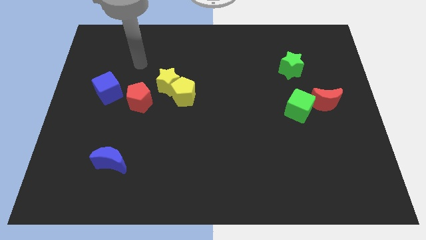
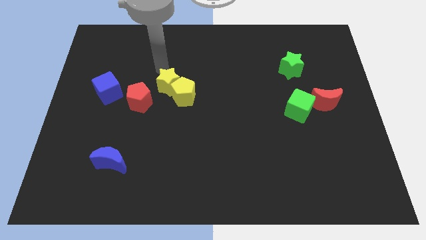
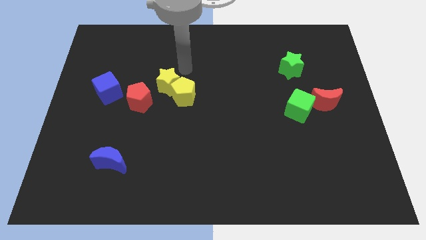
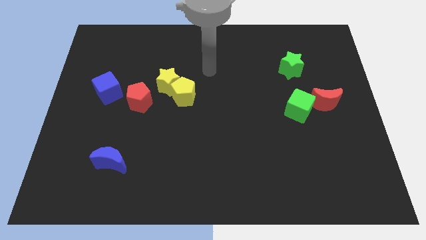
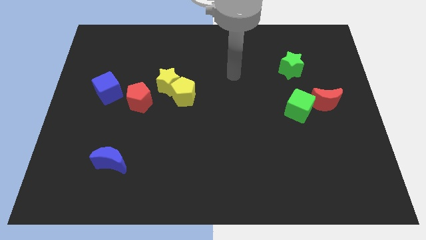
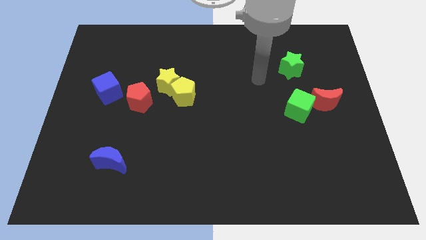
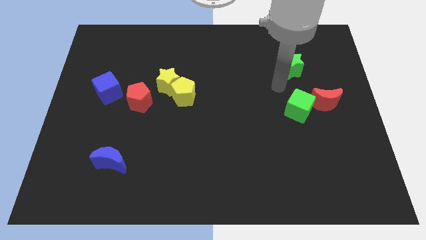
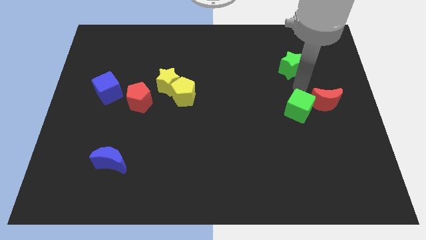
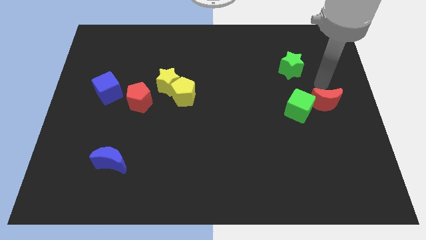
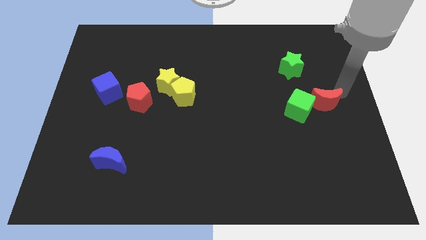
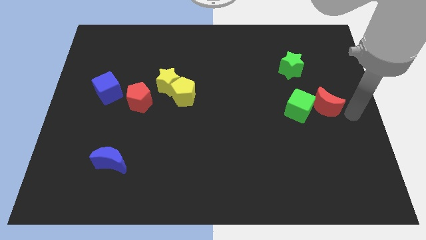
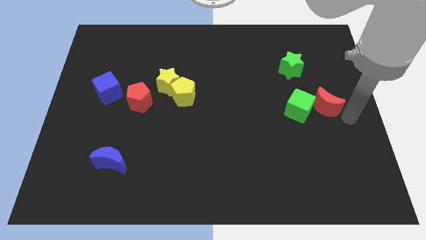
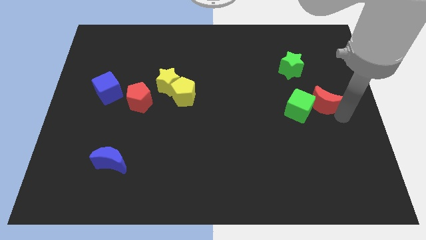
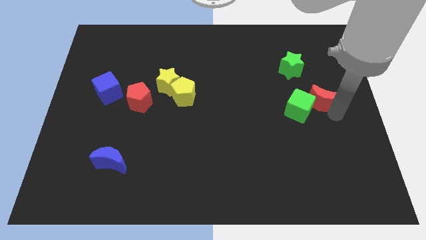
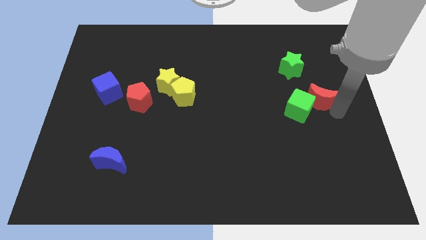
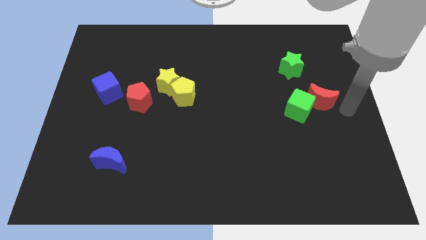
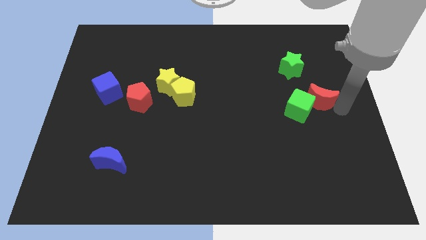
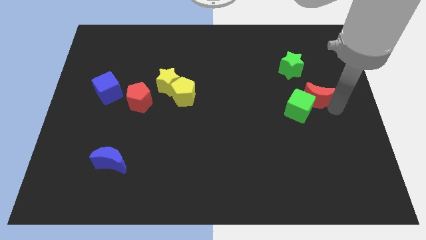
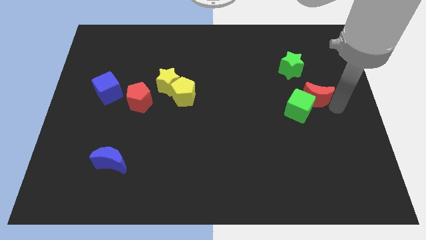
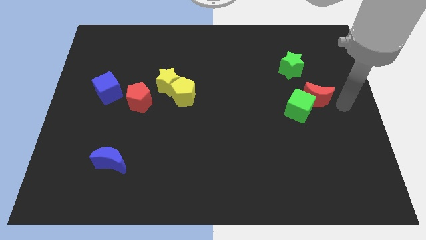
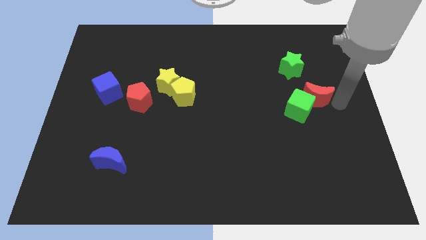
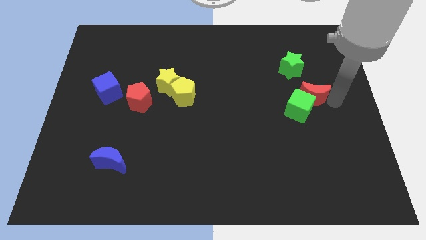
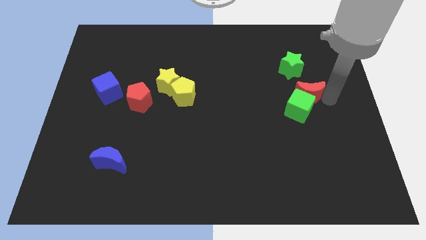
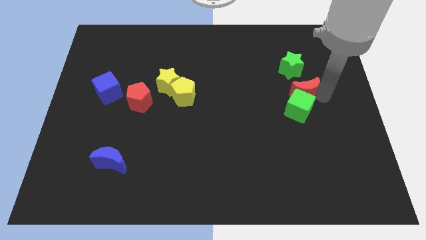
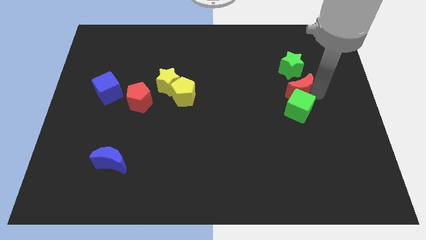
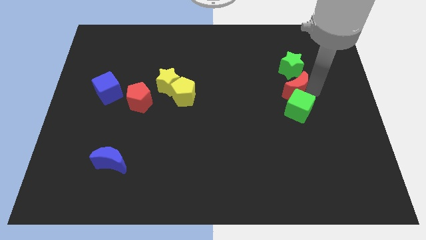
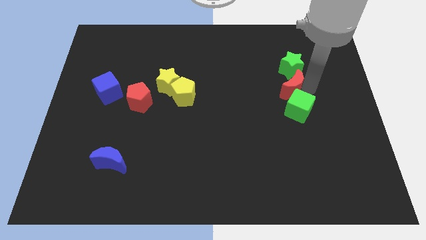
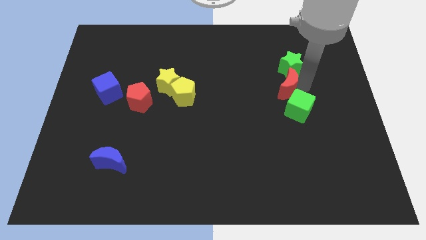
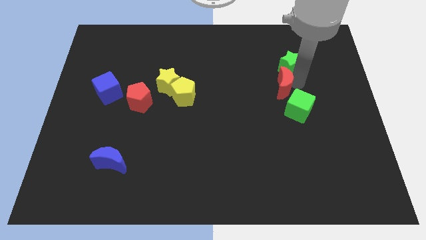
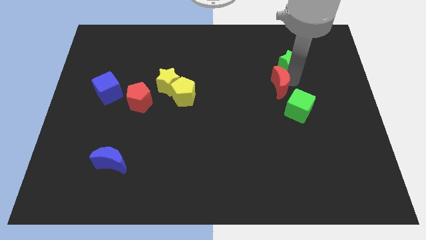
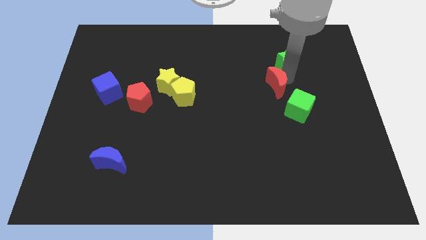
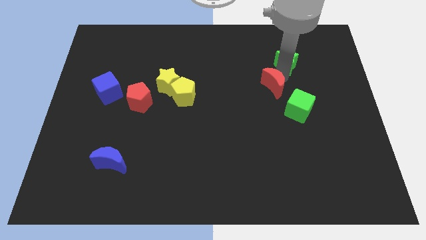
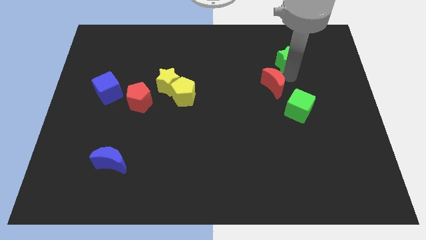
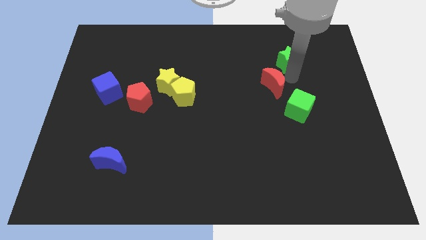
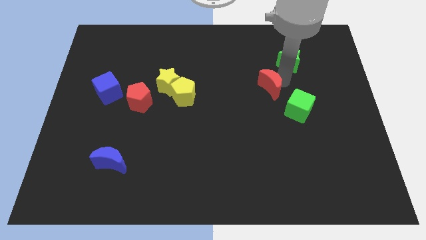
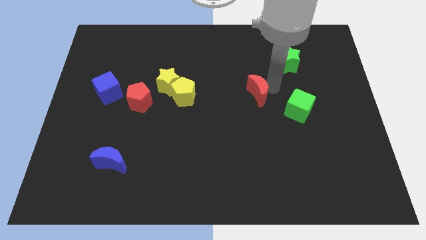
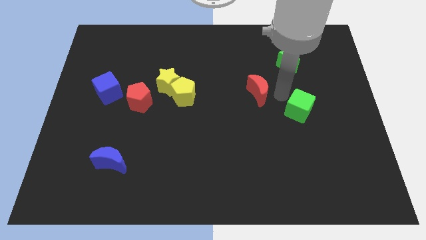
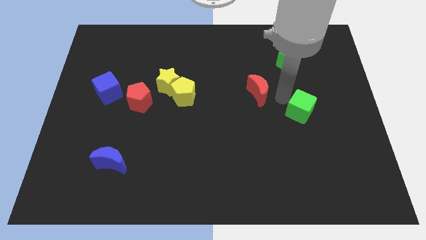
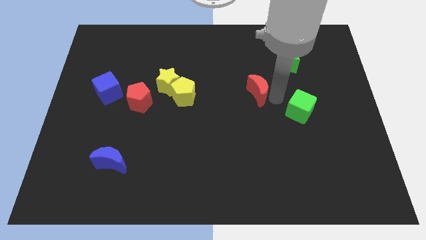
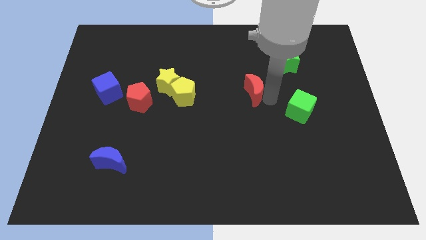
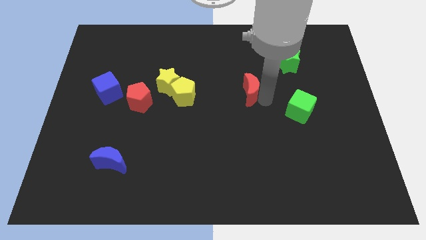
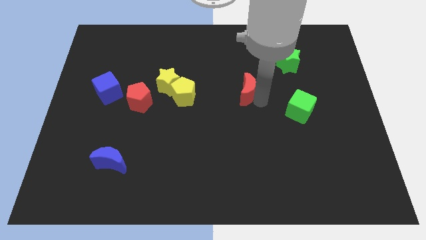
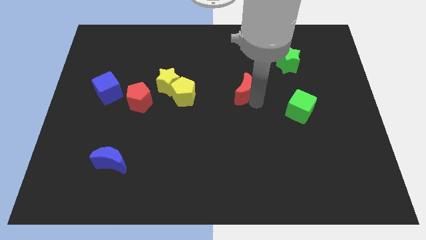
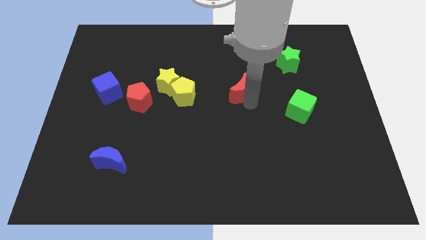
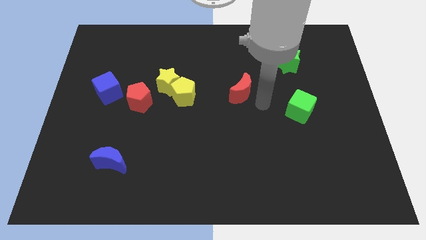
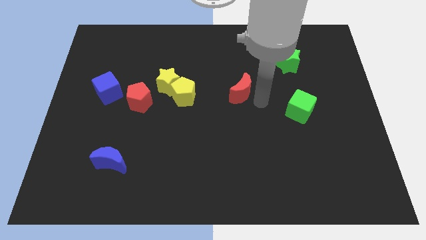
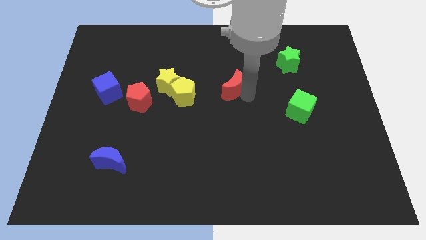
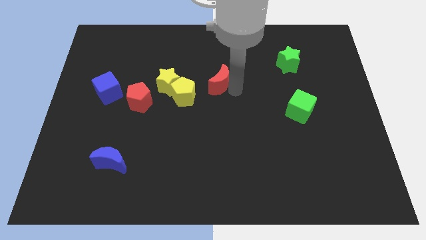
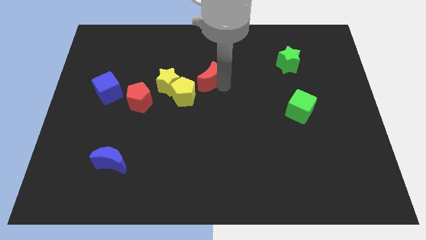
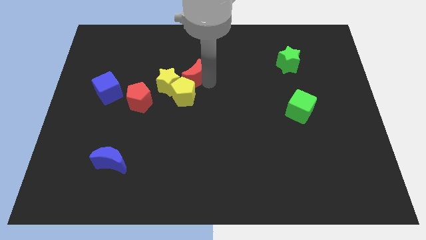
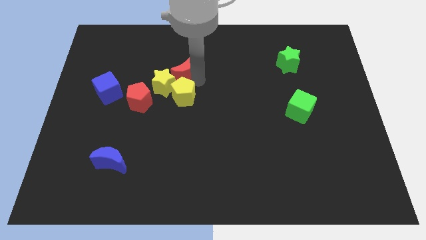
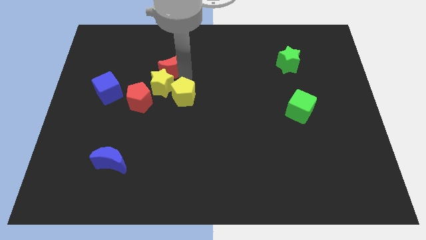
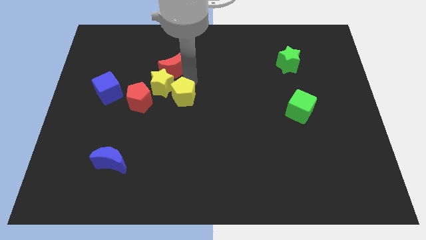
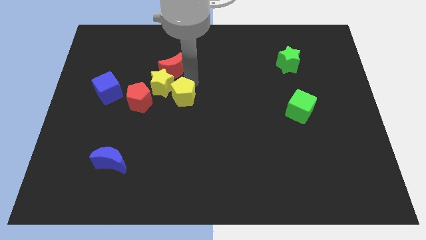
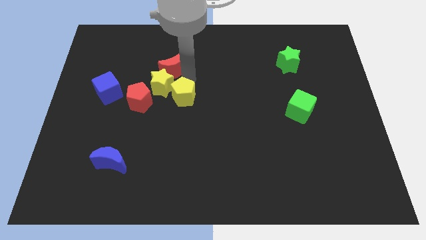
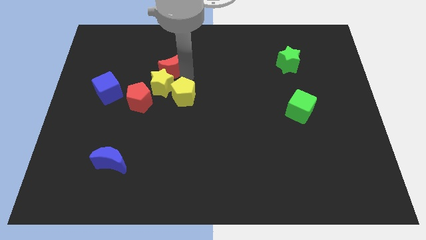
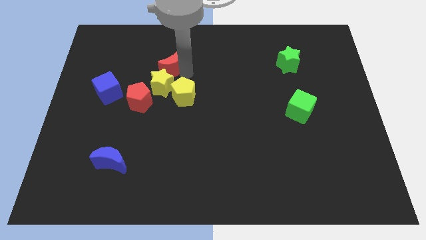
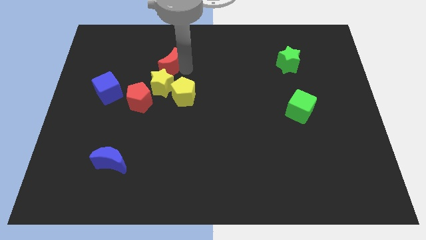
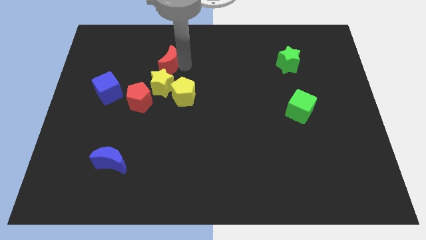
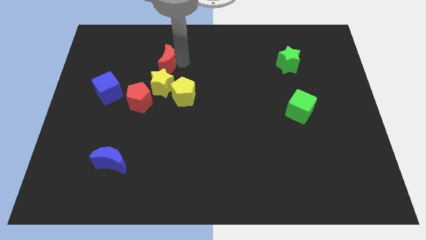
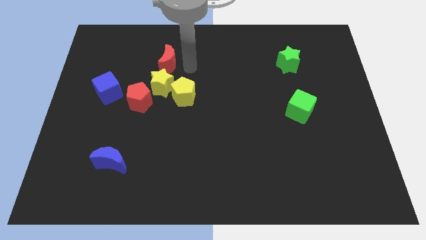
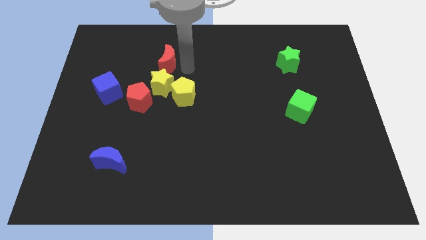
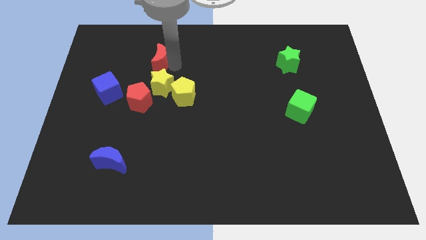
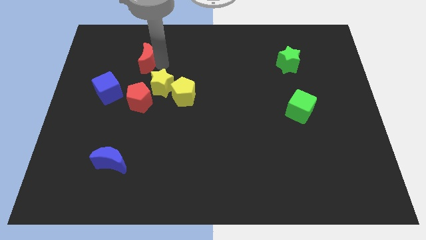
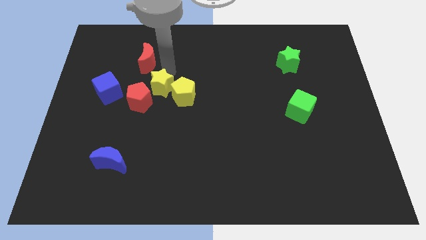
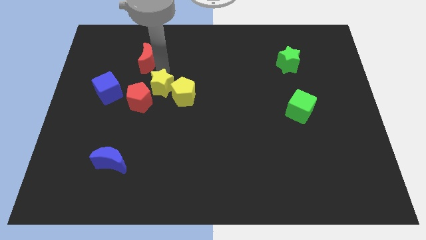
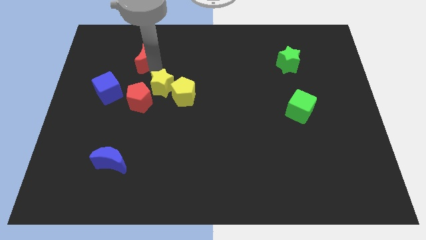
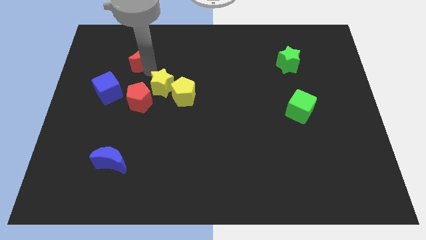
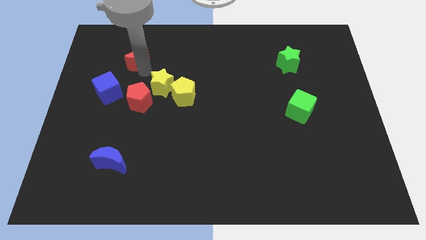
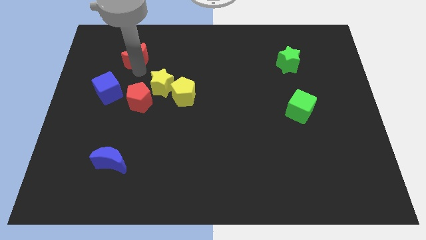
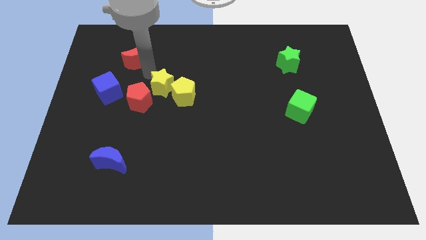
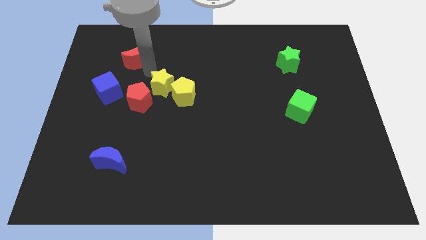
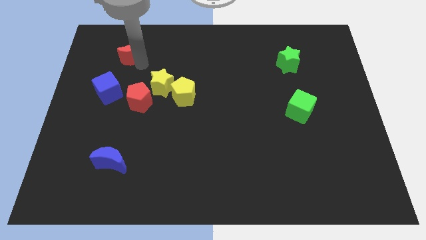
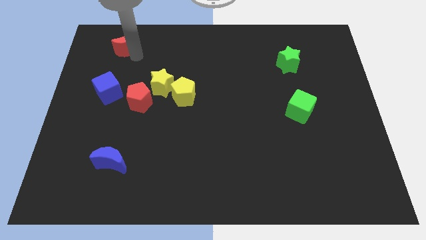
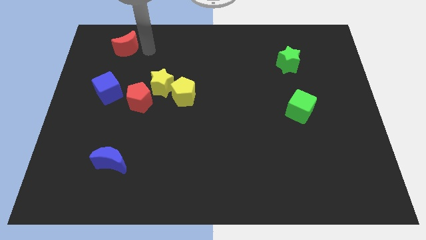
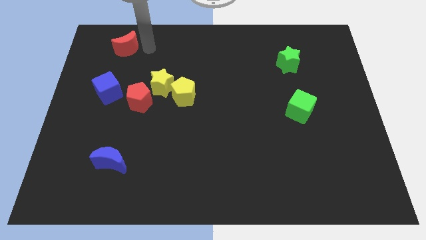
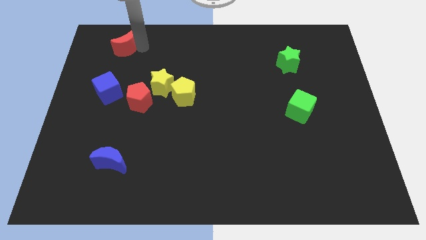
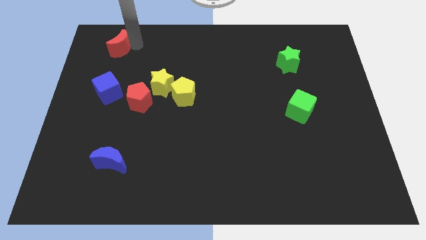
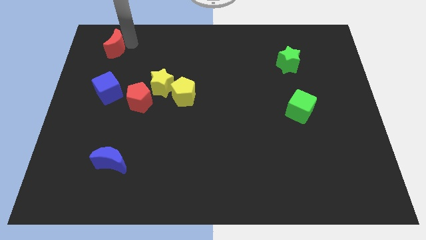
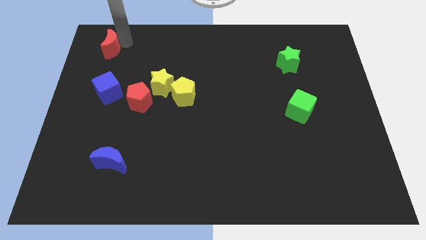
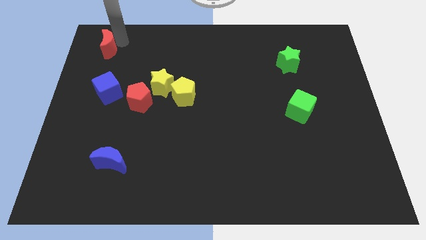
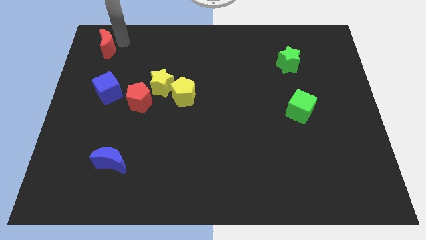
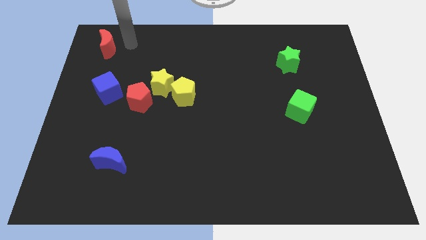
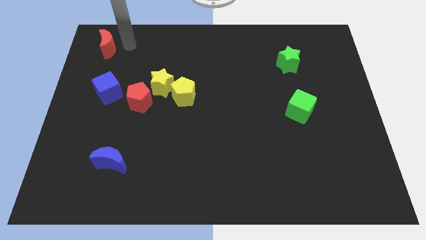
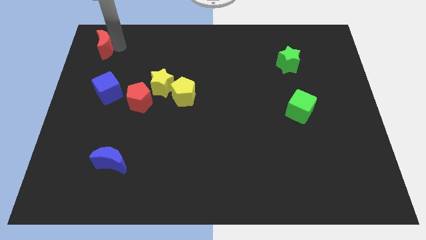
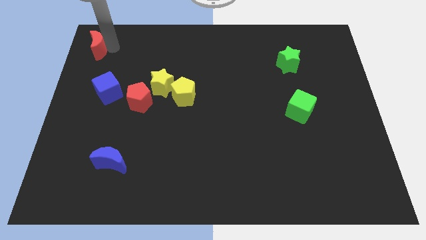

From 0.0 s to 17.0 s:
slide the red moon to the top left corner
